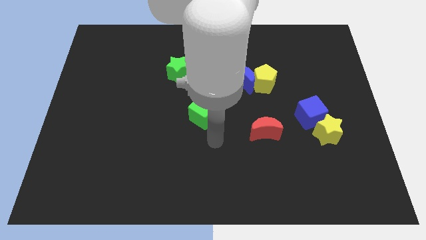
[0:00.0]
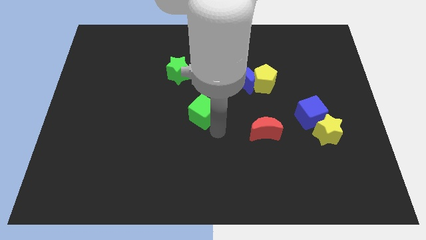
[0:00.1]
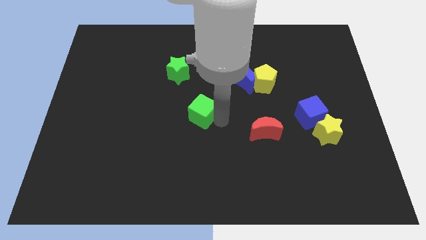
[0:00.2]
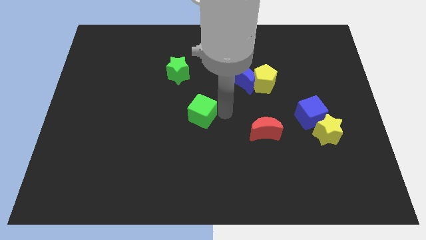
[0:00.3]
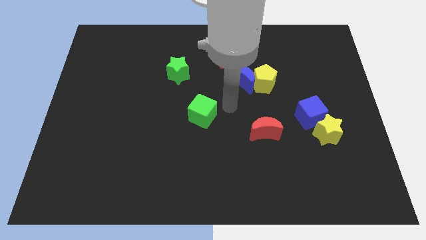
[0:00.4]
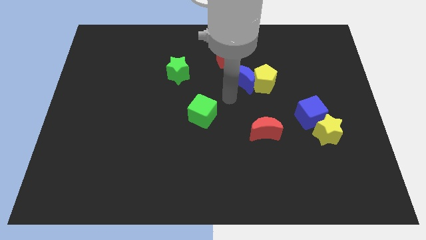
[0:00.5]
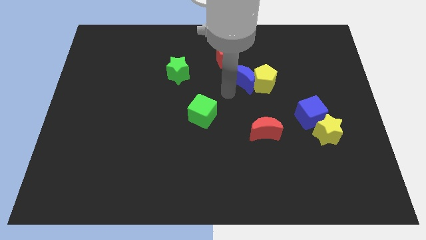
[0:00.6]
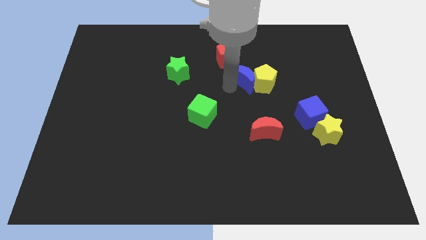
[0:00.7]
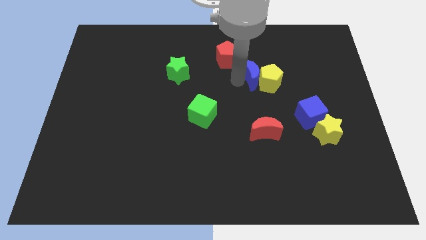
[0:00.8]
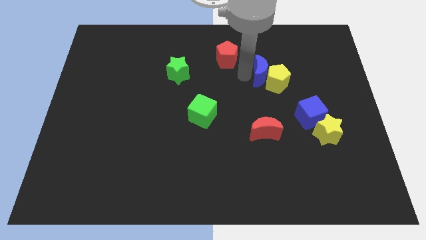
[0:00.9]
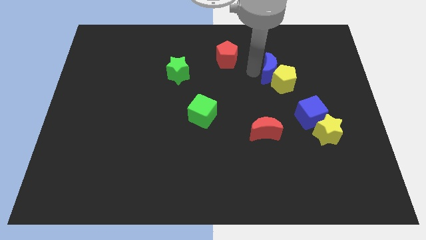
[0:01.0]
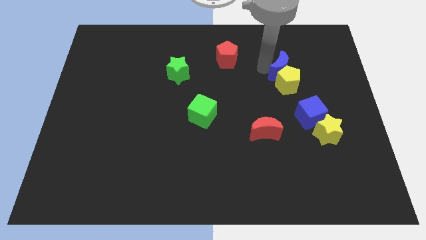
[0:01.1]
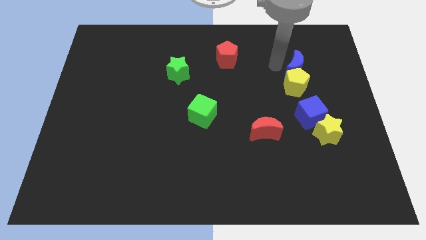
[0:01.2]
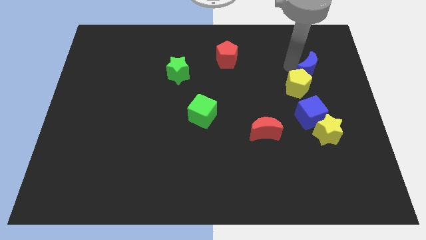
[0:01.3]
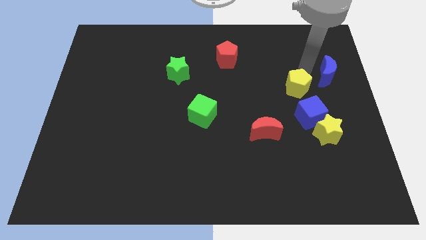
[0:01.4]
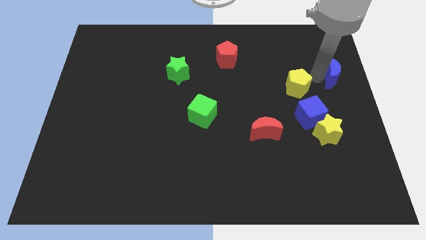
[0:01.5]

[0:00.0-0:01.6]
pull the yellow pentagon apart from the blue moon

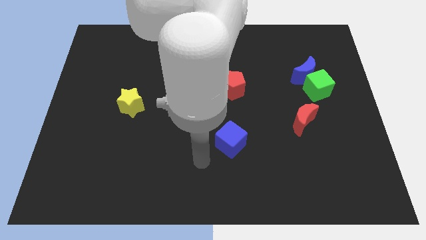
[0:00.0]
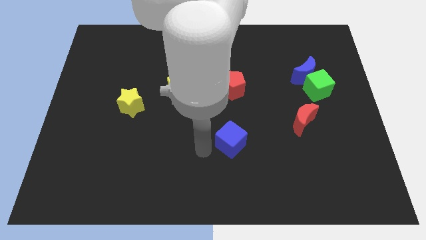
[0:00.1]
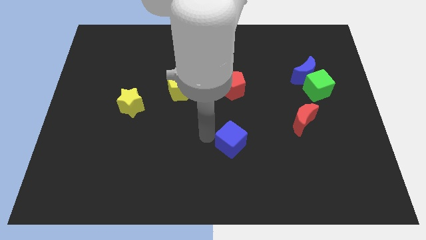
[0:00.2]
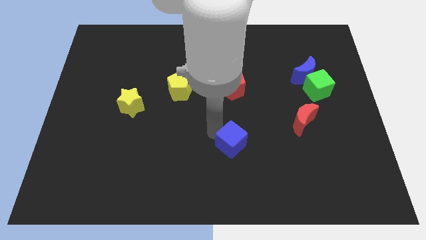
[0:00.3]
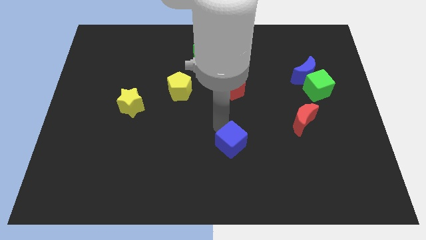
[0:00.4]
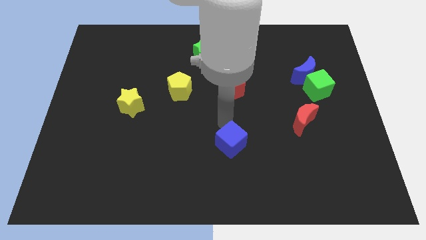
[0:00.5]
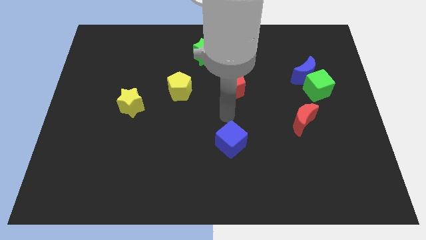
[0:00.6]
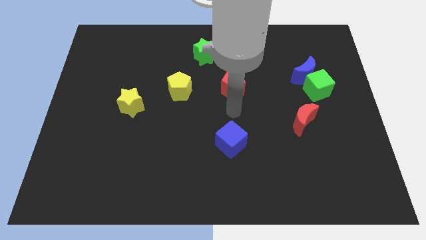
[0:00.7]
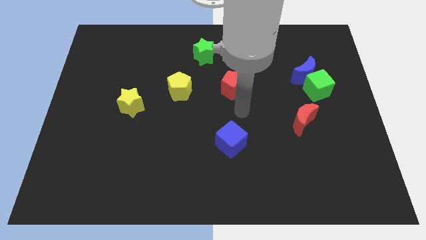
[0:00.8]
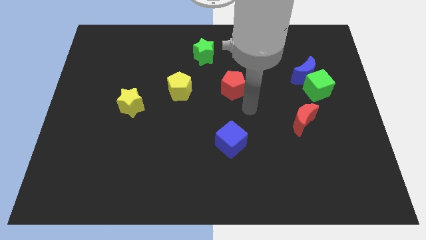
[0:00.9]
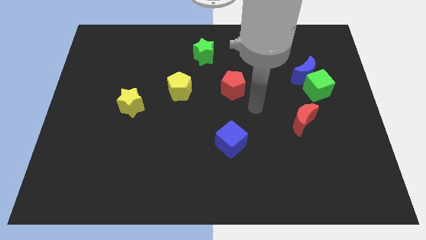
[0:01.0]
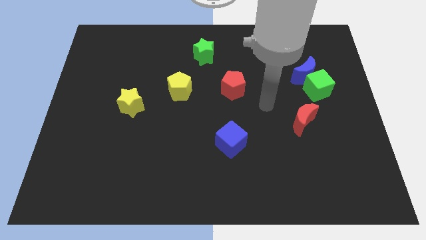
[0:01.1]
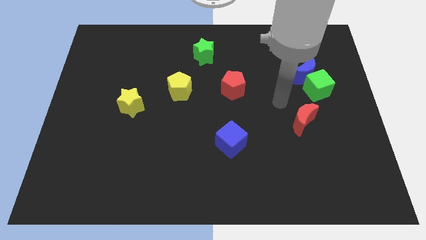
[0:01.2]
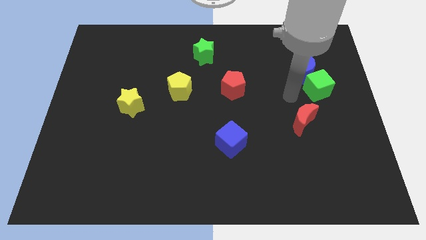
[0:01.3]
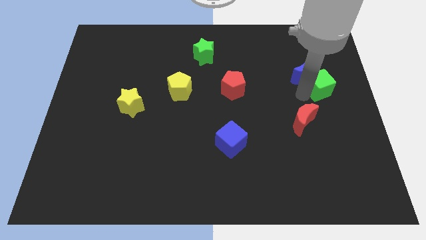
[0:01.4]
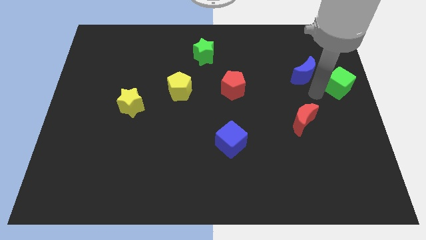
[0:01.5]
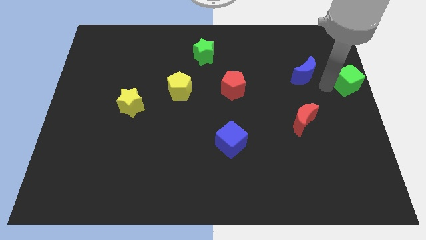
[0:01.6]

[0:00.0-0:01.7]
move the blue moon away from the green cube

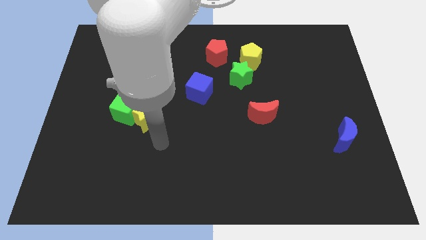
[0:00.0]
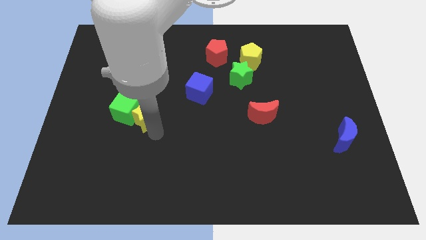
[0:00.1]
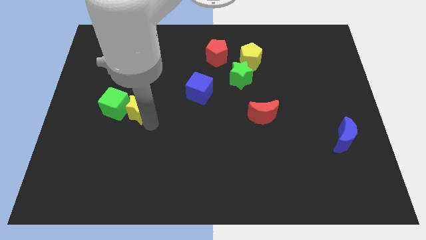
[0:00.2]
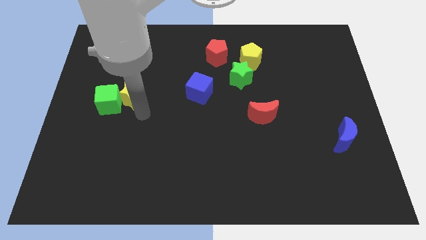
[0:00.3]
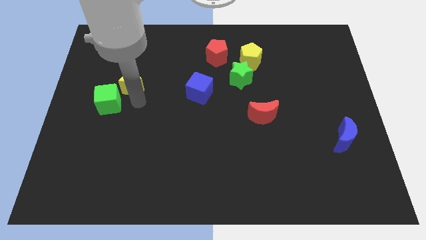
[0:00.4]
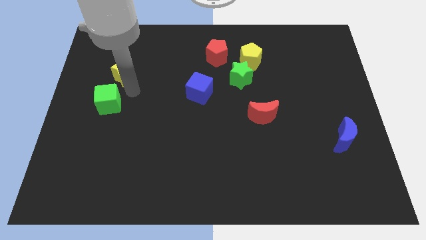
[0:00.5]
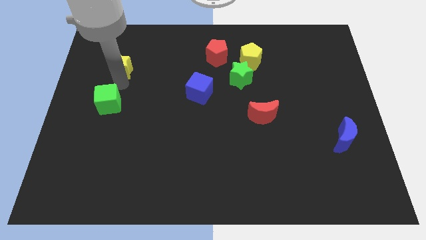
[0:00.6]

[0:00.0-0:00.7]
separate the green cube from the yellow star

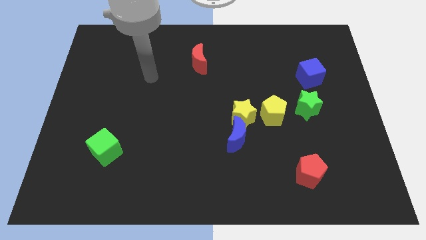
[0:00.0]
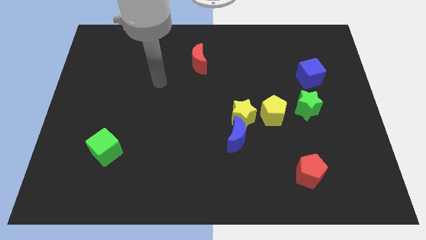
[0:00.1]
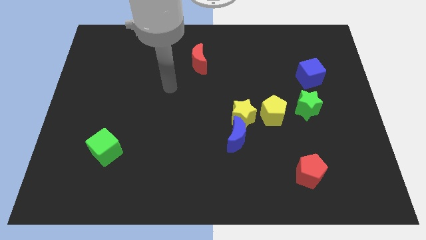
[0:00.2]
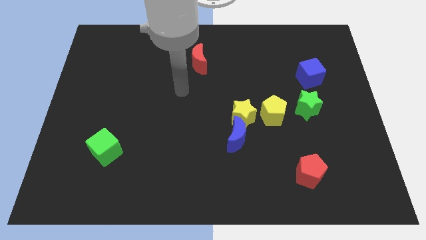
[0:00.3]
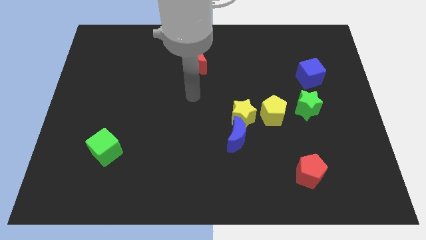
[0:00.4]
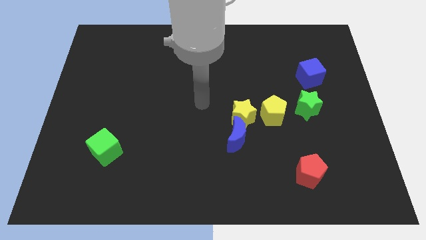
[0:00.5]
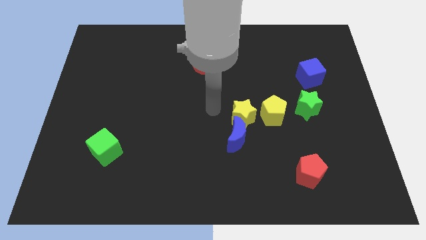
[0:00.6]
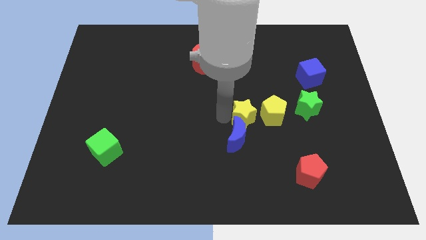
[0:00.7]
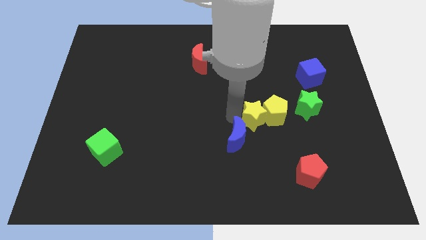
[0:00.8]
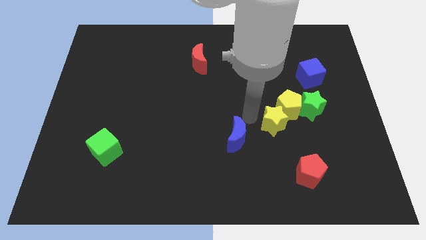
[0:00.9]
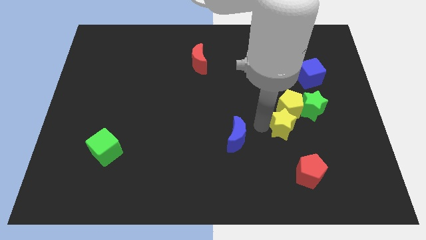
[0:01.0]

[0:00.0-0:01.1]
move the blue moon away from the yellow star

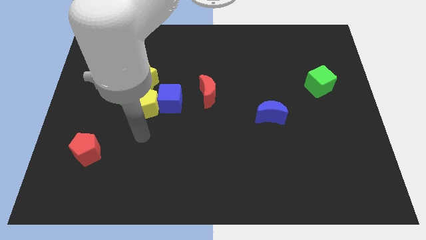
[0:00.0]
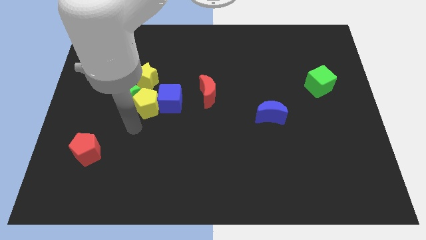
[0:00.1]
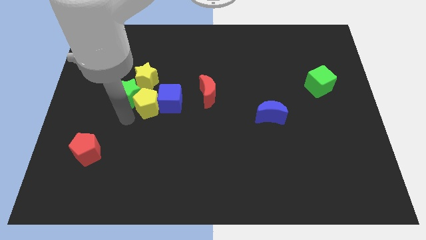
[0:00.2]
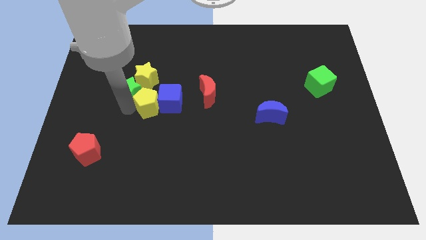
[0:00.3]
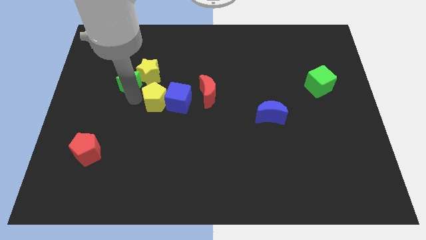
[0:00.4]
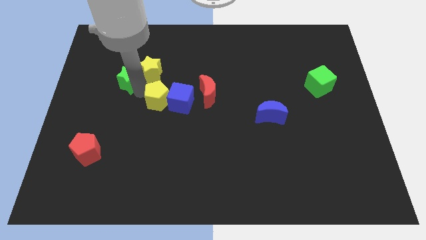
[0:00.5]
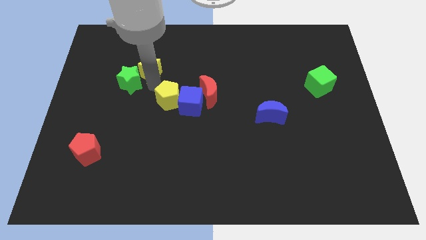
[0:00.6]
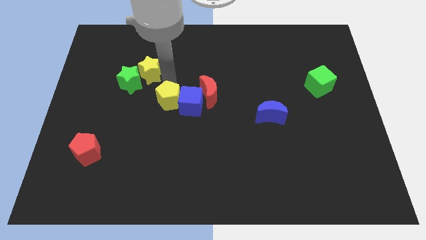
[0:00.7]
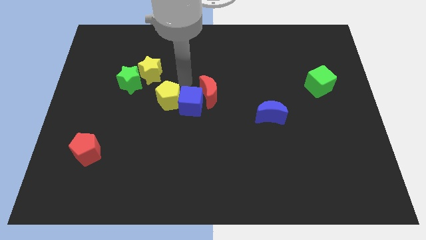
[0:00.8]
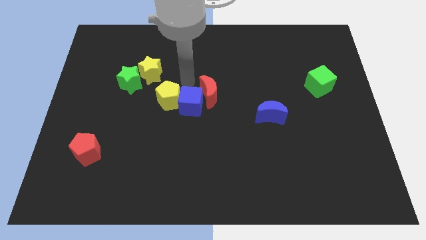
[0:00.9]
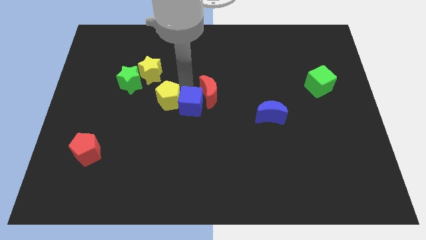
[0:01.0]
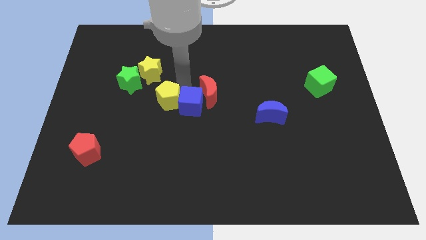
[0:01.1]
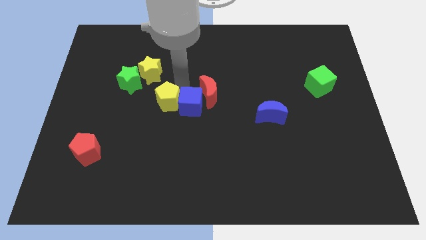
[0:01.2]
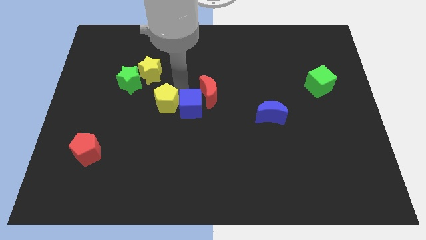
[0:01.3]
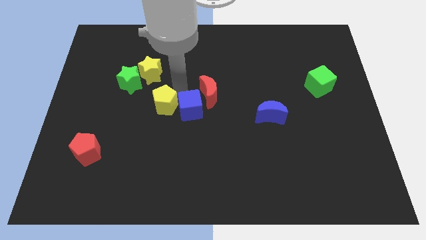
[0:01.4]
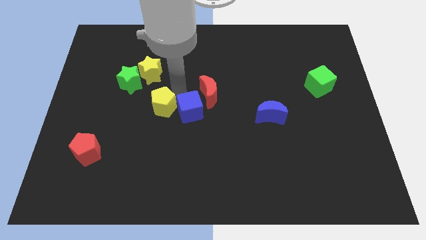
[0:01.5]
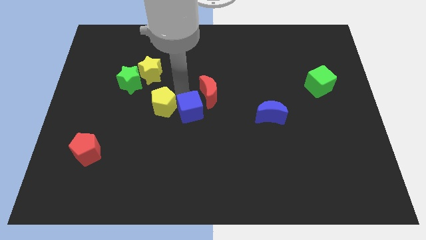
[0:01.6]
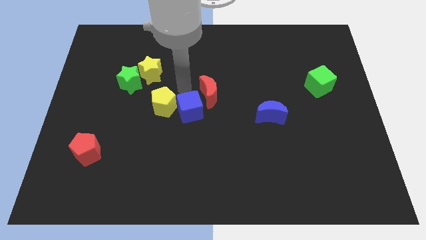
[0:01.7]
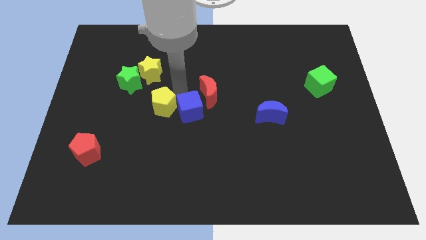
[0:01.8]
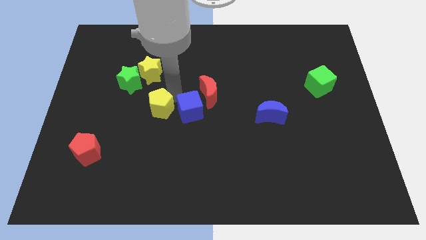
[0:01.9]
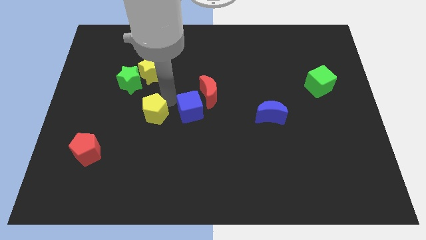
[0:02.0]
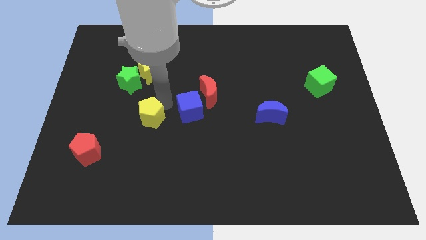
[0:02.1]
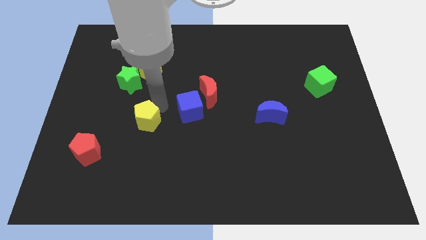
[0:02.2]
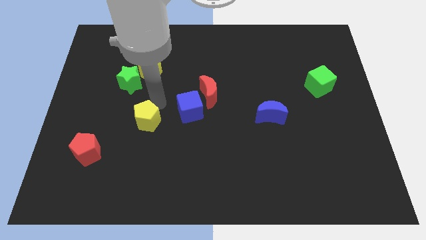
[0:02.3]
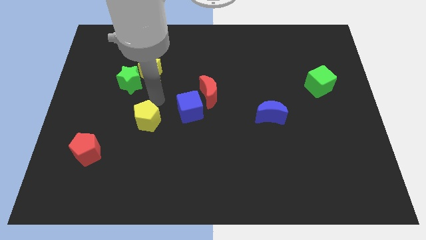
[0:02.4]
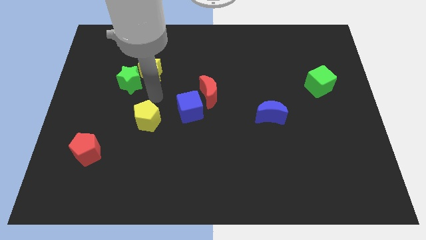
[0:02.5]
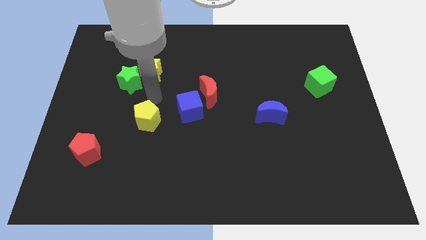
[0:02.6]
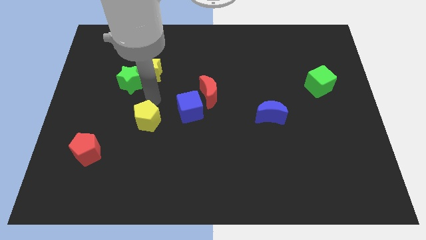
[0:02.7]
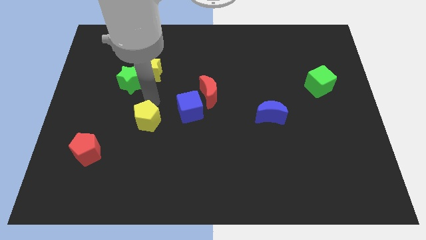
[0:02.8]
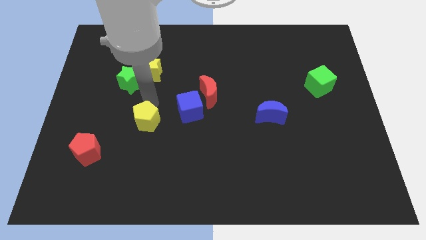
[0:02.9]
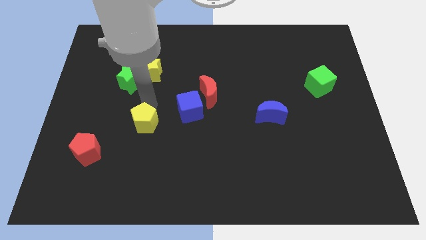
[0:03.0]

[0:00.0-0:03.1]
move the yellow pentagon away from the green star, blue cube, and yellow star

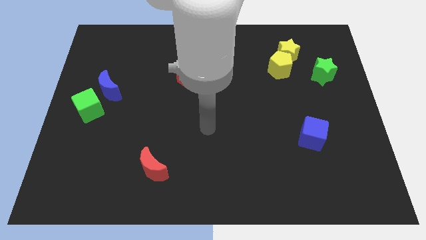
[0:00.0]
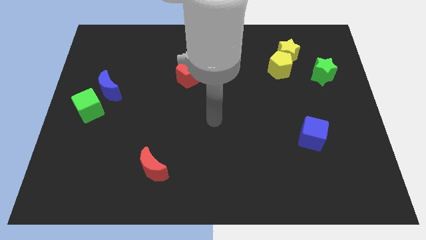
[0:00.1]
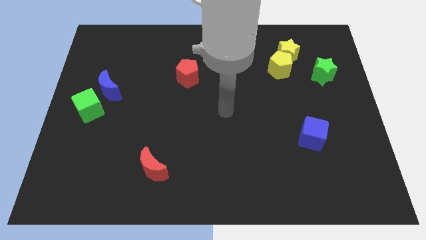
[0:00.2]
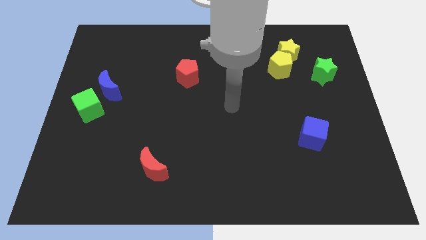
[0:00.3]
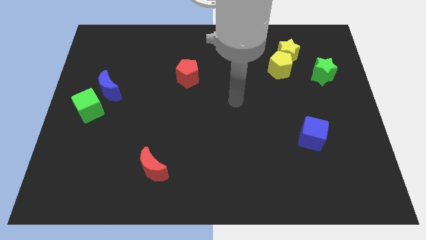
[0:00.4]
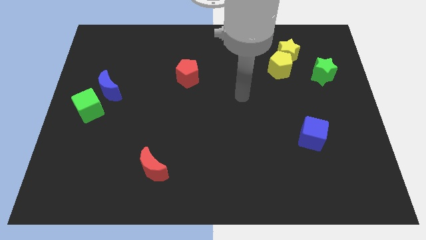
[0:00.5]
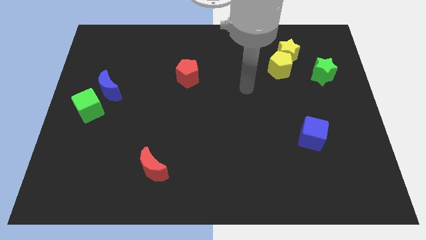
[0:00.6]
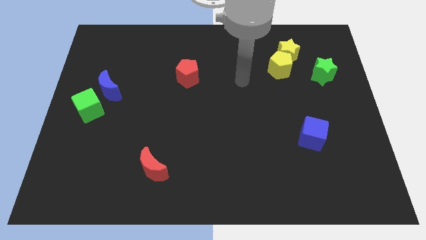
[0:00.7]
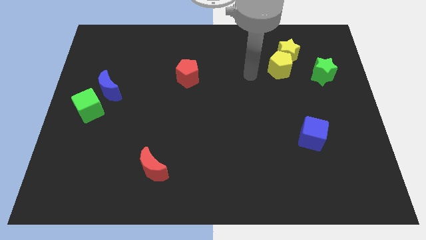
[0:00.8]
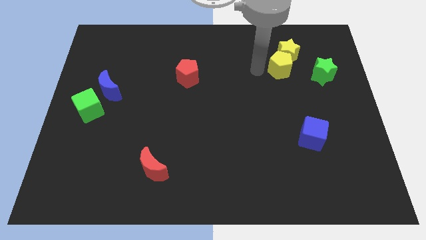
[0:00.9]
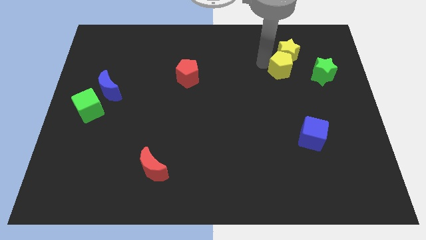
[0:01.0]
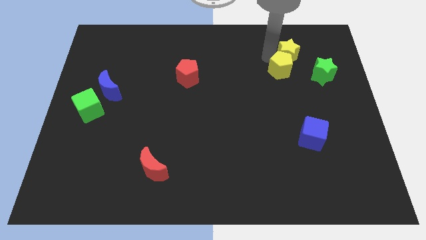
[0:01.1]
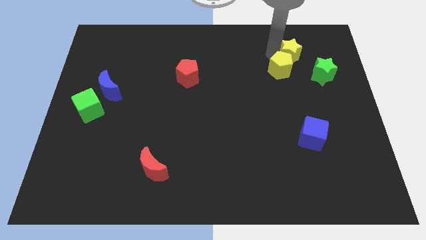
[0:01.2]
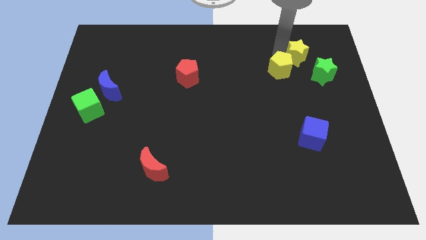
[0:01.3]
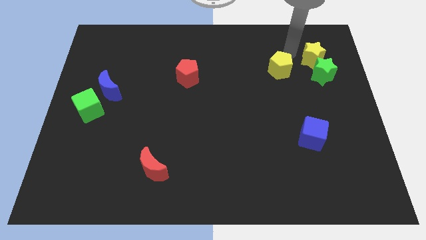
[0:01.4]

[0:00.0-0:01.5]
separate the yellow pentagon from the yellow star
